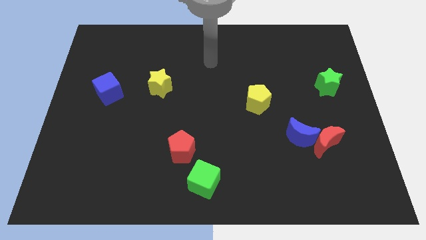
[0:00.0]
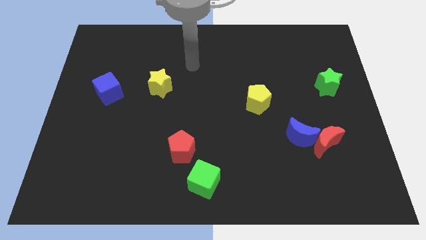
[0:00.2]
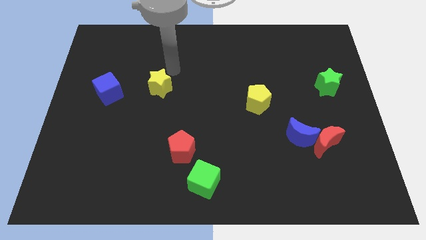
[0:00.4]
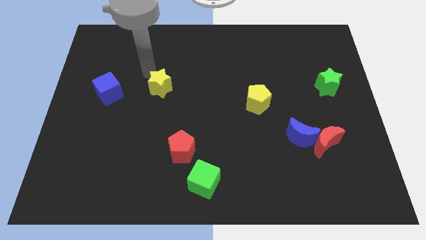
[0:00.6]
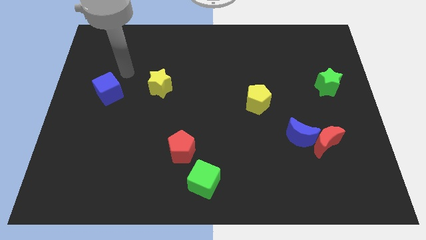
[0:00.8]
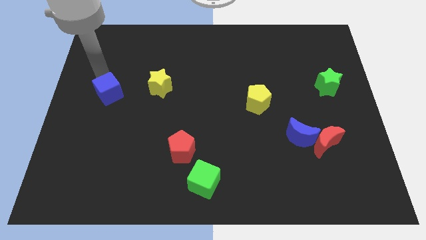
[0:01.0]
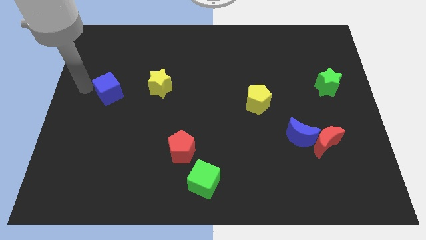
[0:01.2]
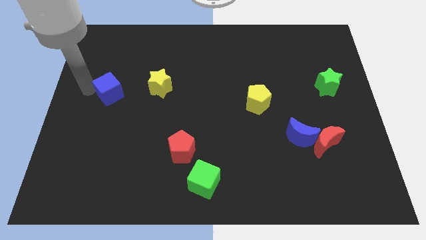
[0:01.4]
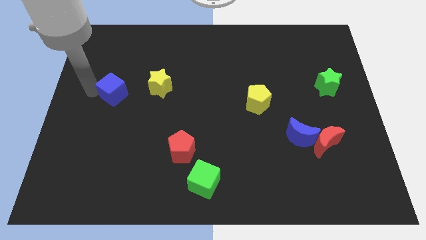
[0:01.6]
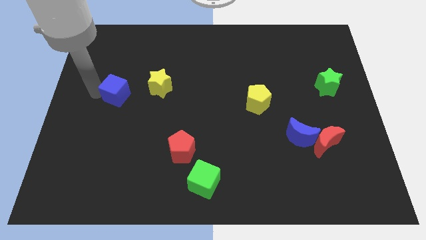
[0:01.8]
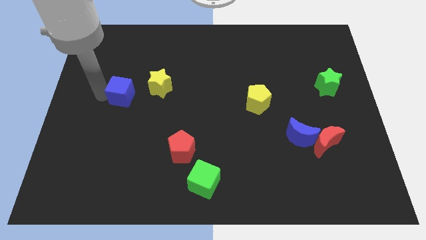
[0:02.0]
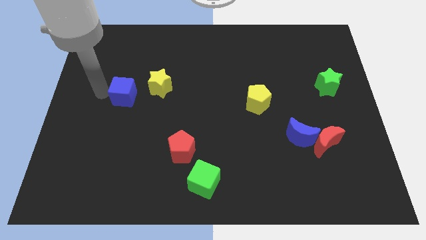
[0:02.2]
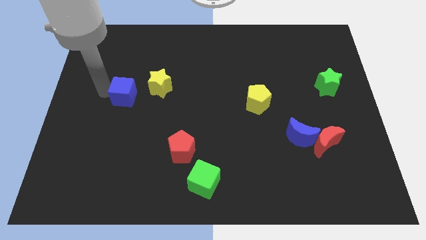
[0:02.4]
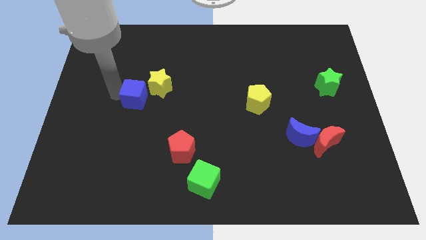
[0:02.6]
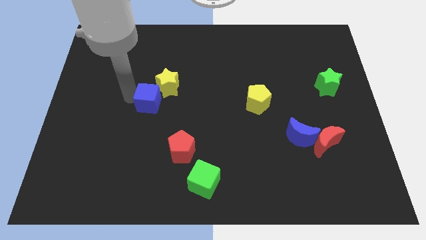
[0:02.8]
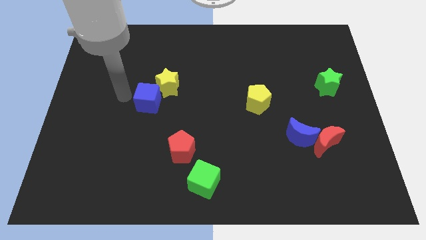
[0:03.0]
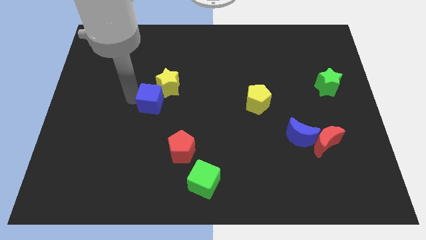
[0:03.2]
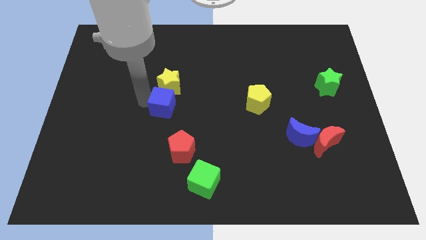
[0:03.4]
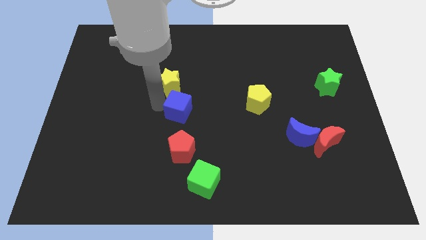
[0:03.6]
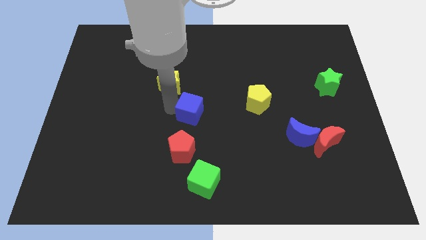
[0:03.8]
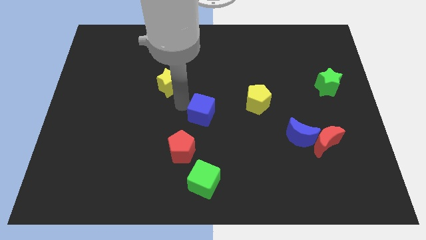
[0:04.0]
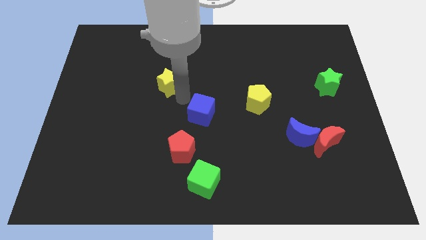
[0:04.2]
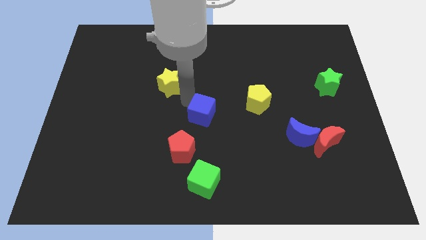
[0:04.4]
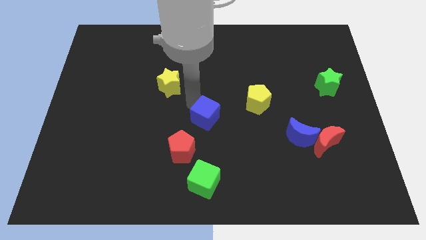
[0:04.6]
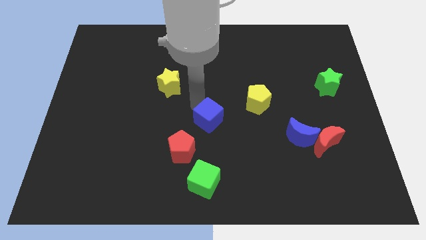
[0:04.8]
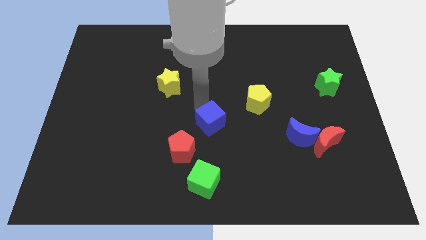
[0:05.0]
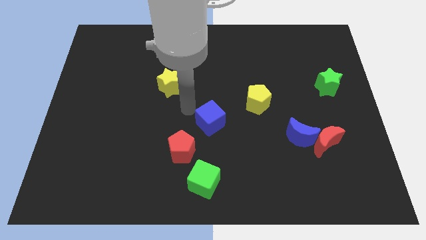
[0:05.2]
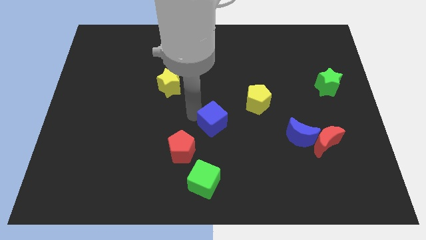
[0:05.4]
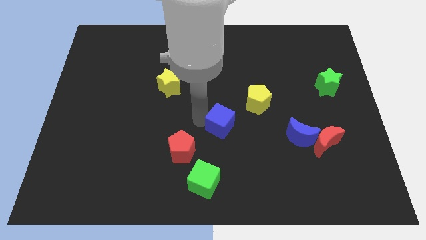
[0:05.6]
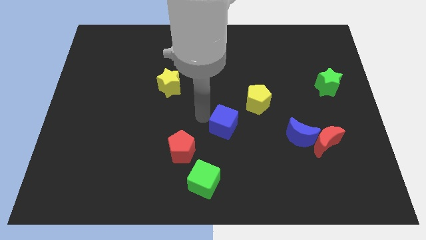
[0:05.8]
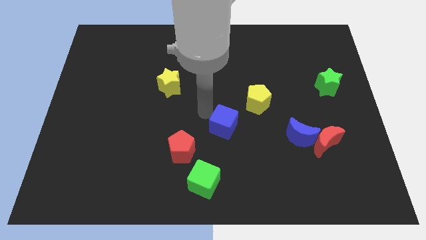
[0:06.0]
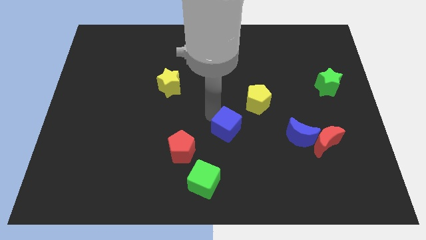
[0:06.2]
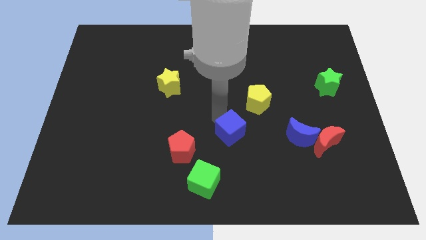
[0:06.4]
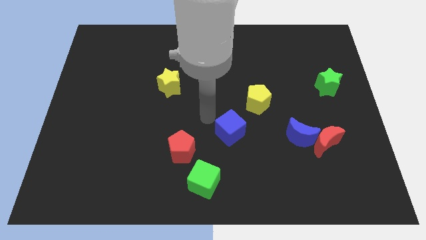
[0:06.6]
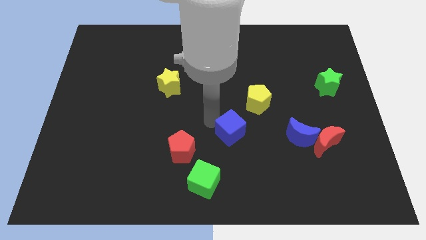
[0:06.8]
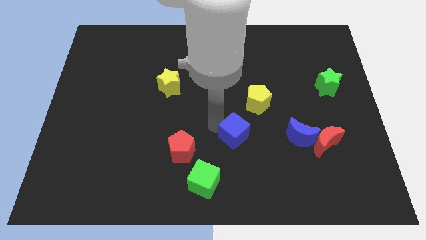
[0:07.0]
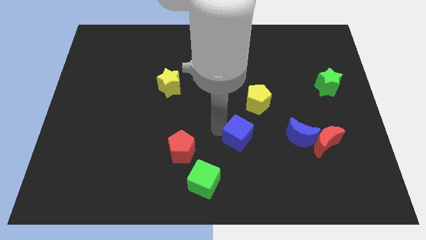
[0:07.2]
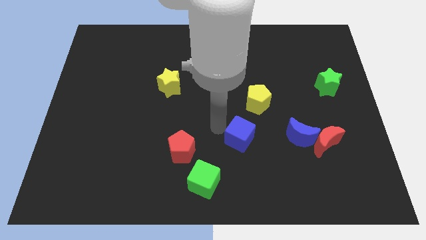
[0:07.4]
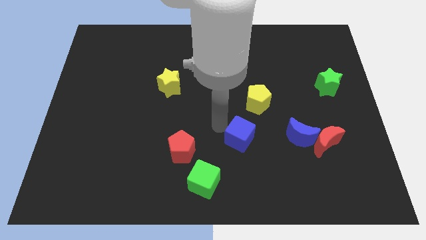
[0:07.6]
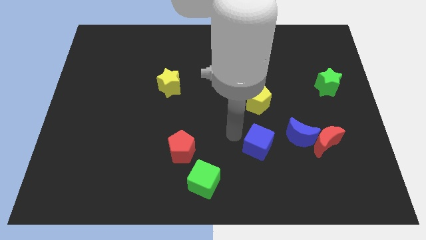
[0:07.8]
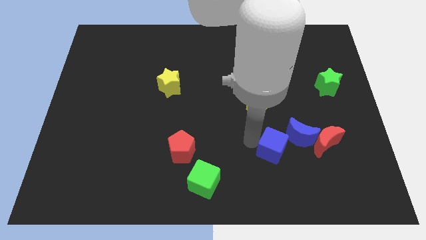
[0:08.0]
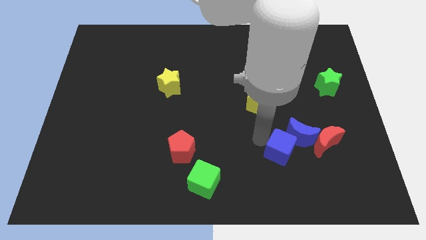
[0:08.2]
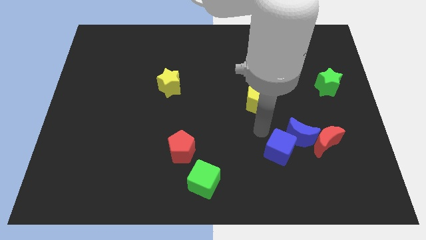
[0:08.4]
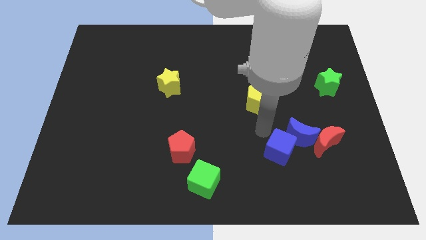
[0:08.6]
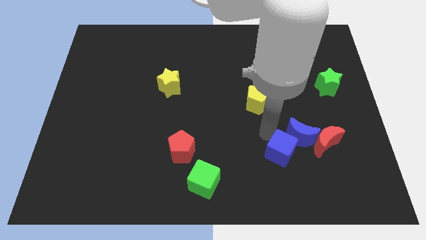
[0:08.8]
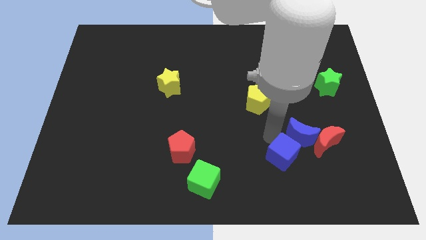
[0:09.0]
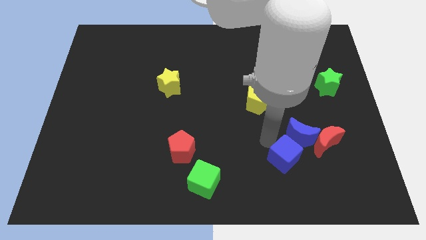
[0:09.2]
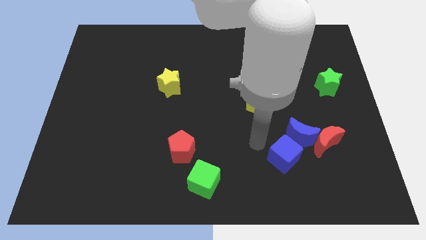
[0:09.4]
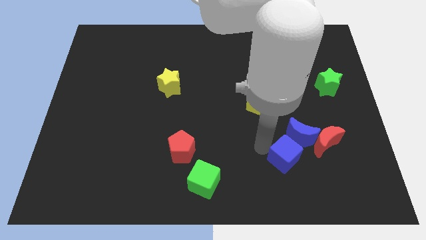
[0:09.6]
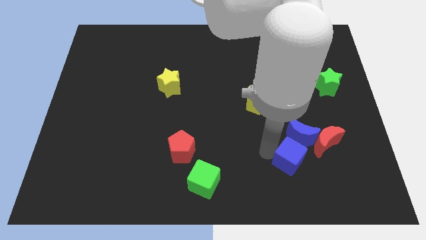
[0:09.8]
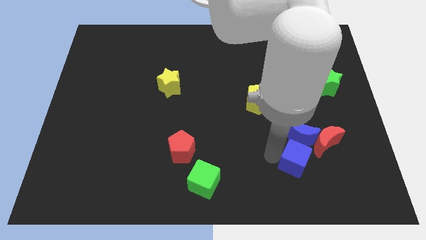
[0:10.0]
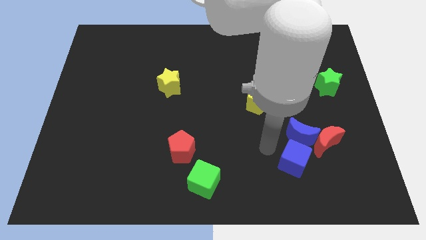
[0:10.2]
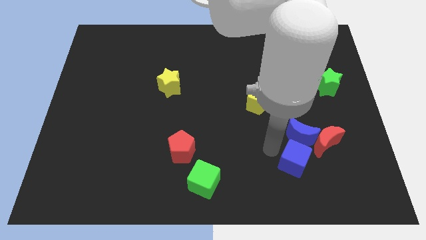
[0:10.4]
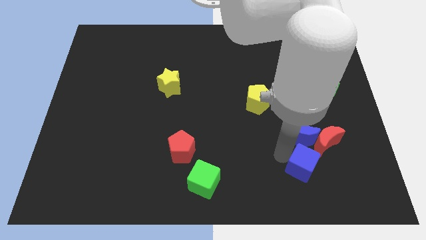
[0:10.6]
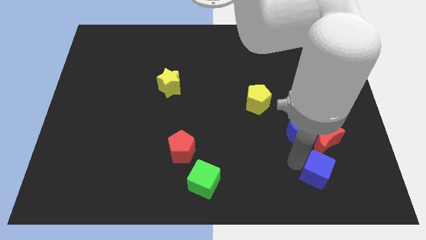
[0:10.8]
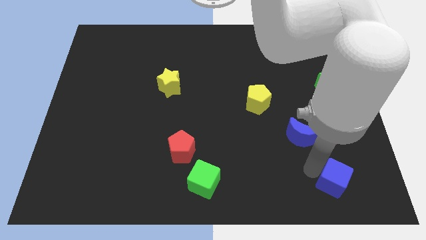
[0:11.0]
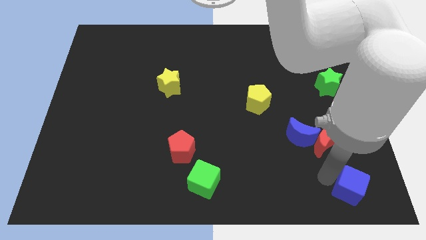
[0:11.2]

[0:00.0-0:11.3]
put the blue cube to the bottom right of the board

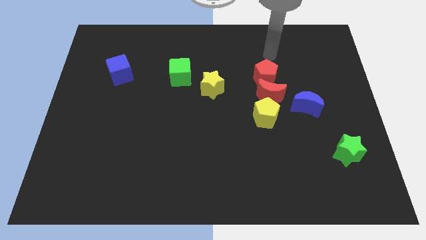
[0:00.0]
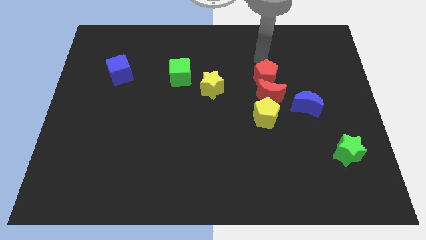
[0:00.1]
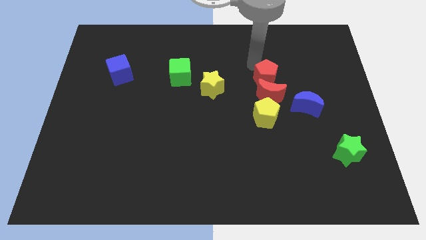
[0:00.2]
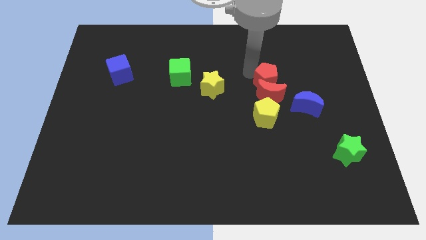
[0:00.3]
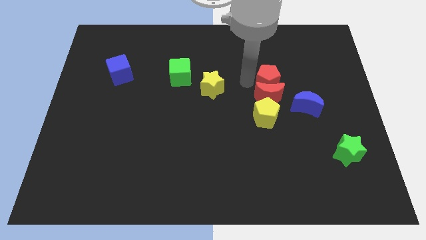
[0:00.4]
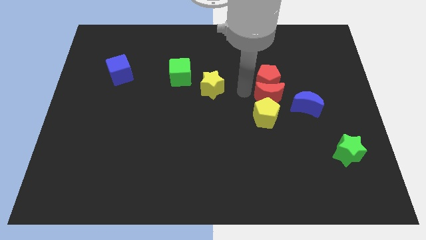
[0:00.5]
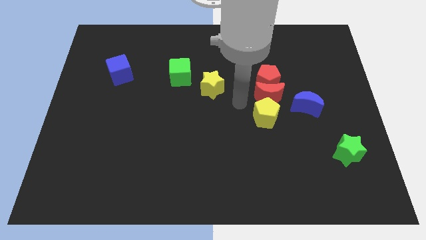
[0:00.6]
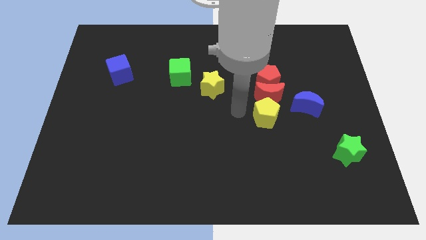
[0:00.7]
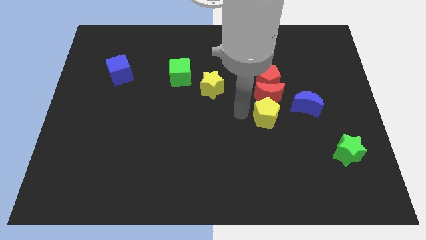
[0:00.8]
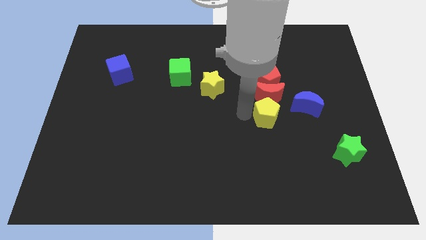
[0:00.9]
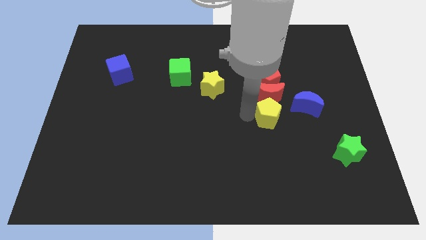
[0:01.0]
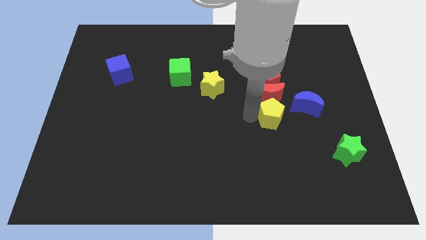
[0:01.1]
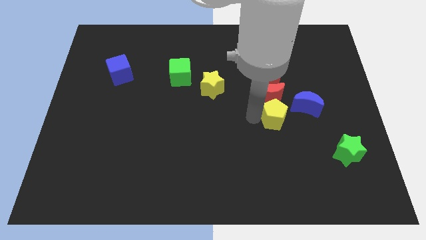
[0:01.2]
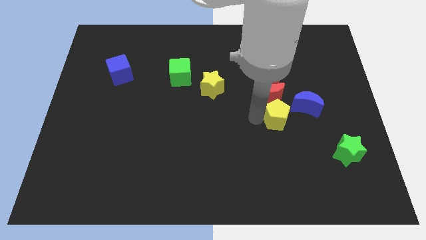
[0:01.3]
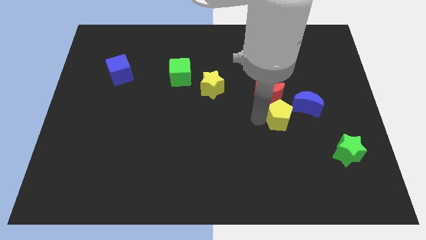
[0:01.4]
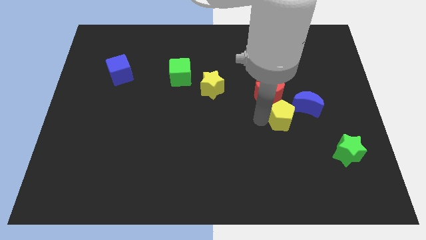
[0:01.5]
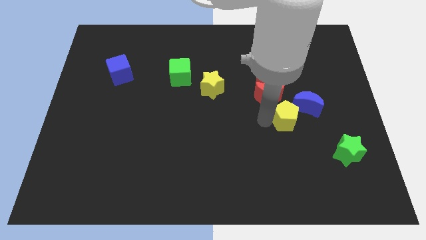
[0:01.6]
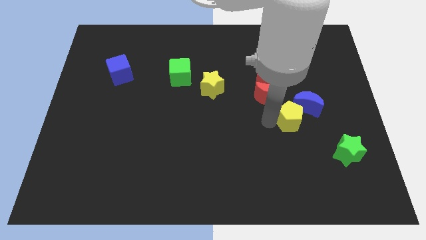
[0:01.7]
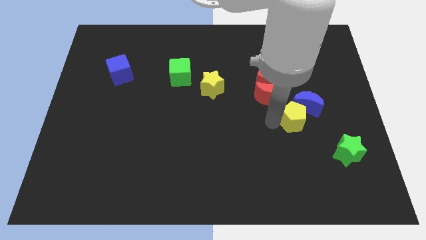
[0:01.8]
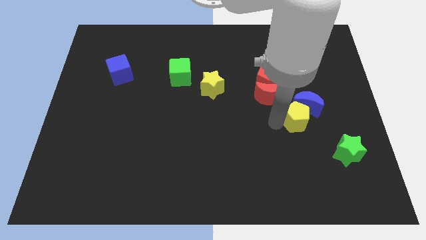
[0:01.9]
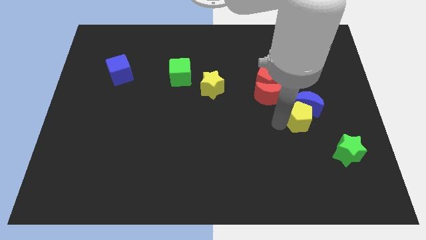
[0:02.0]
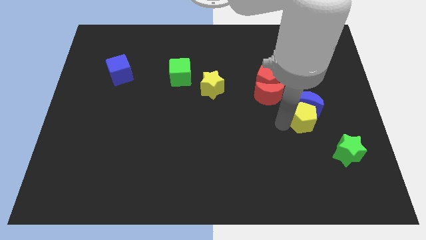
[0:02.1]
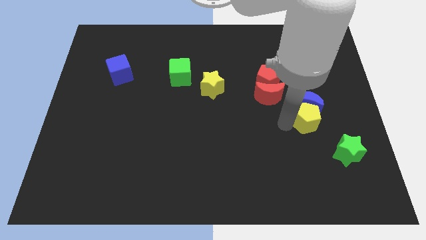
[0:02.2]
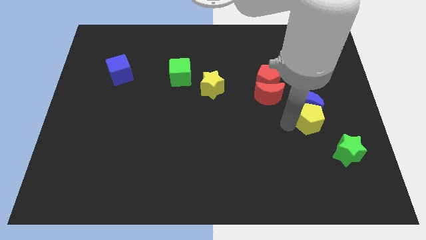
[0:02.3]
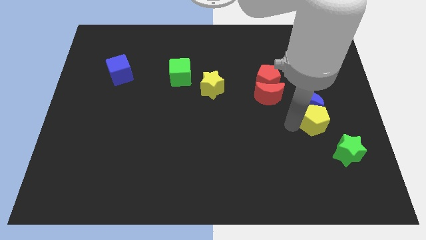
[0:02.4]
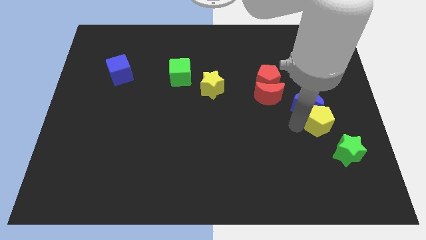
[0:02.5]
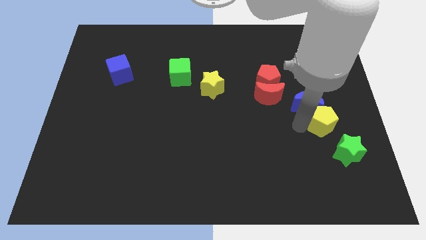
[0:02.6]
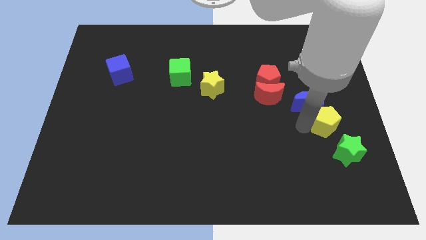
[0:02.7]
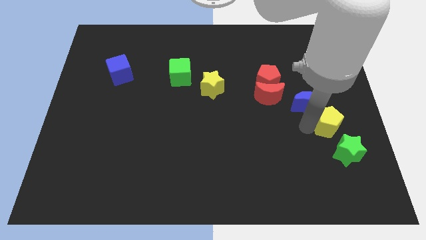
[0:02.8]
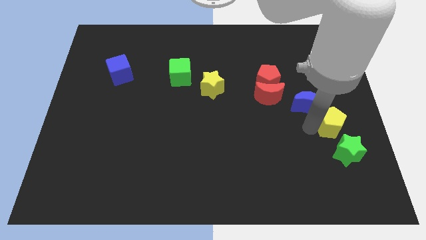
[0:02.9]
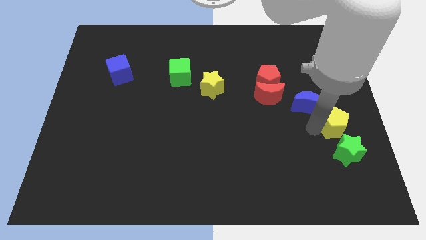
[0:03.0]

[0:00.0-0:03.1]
push the yellow pentagon to the center right
